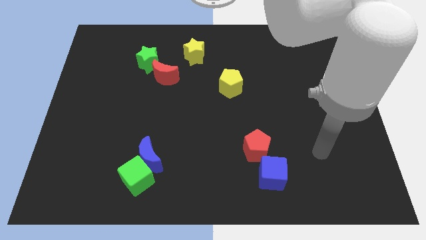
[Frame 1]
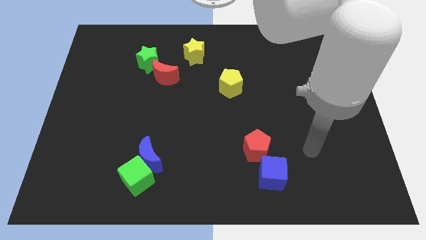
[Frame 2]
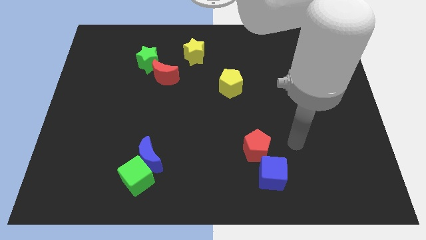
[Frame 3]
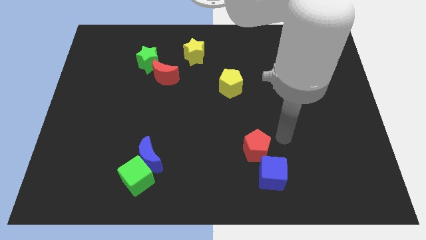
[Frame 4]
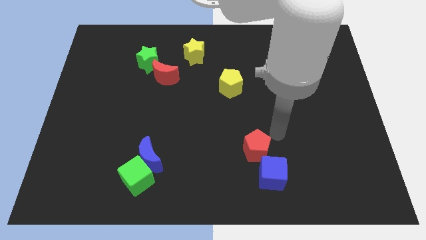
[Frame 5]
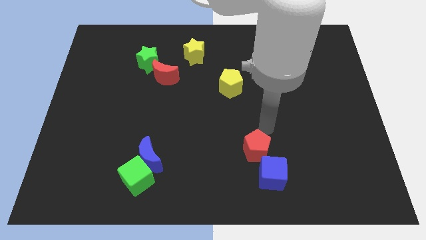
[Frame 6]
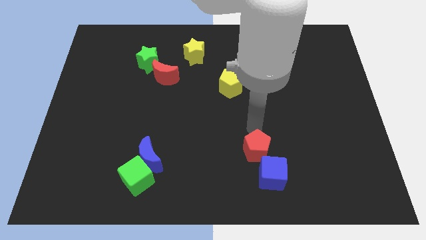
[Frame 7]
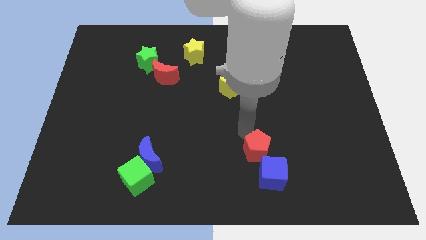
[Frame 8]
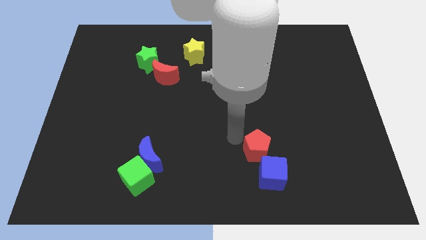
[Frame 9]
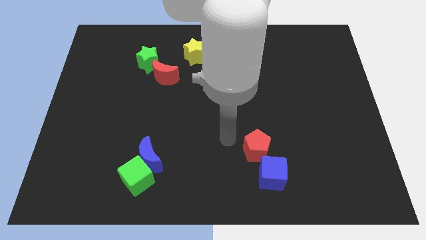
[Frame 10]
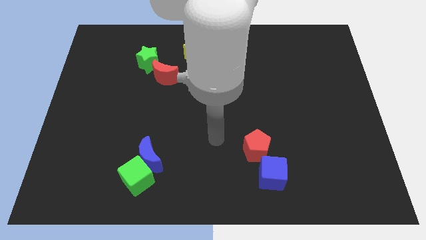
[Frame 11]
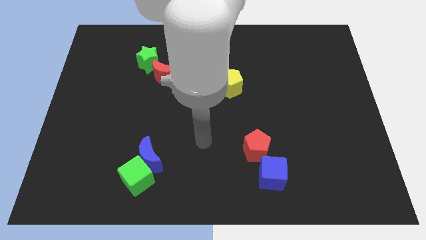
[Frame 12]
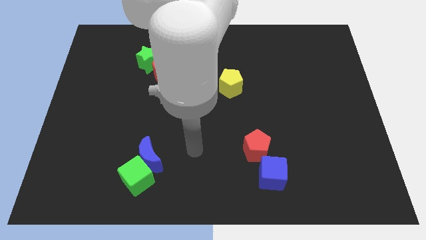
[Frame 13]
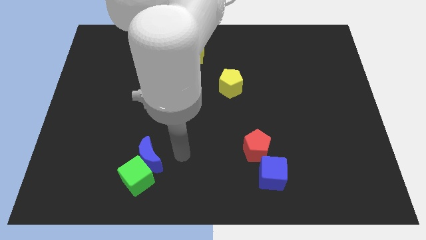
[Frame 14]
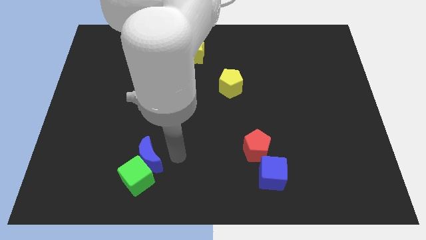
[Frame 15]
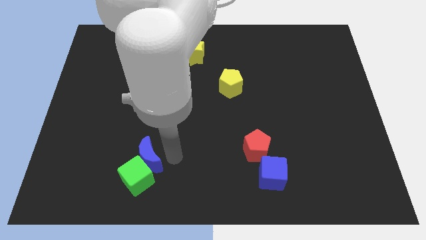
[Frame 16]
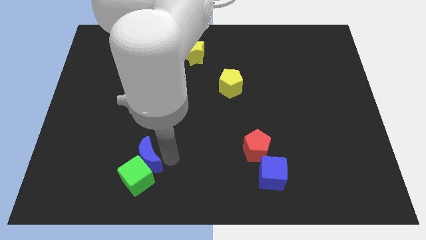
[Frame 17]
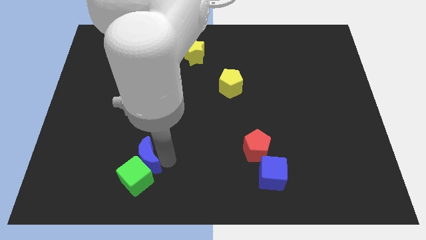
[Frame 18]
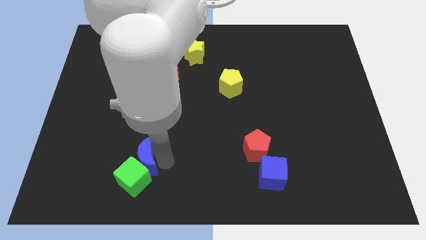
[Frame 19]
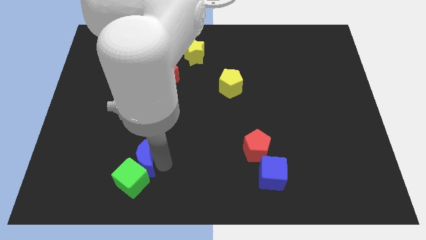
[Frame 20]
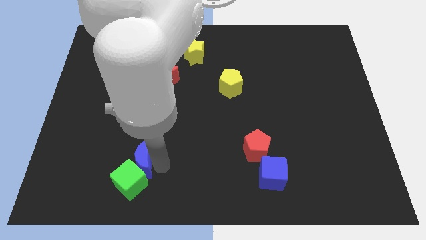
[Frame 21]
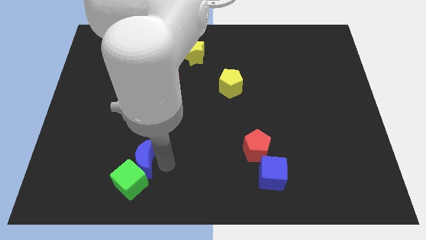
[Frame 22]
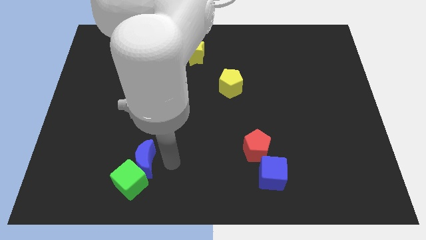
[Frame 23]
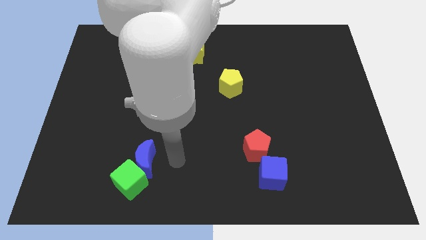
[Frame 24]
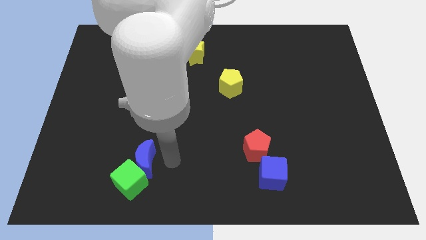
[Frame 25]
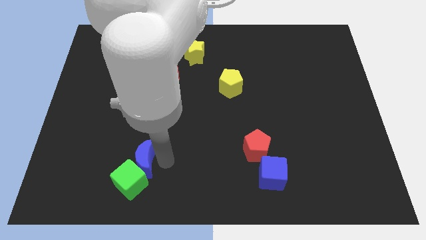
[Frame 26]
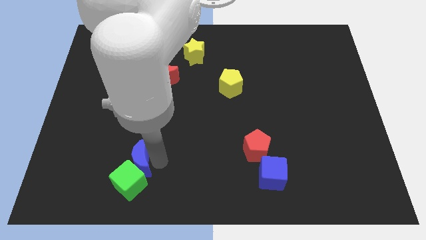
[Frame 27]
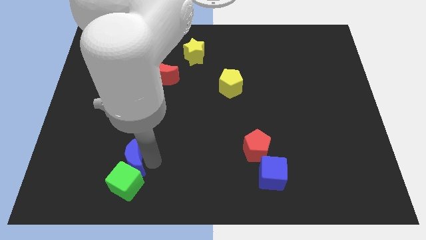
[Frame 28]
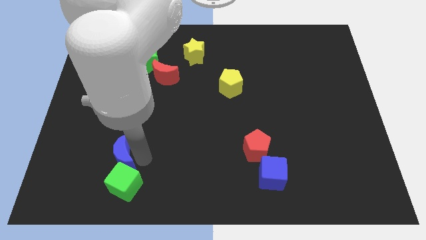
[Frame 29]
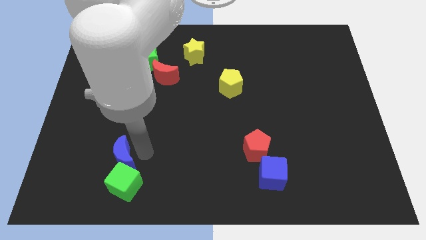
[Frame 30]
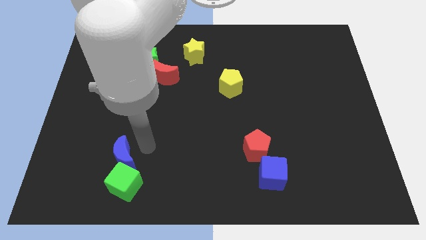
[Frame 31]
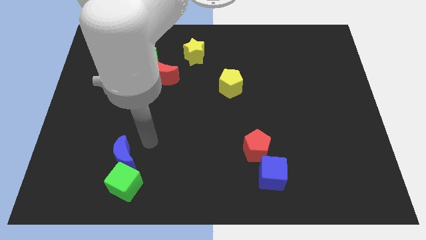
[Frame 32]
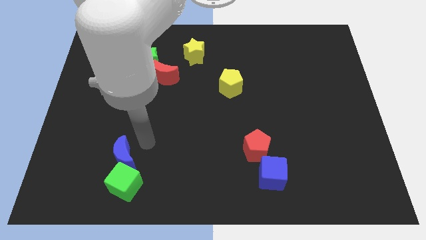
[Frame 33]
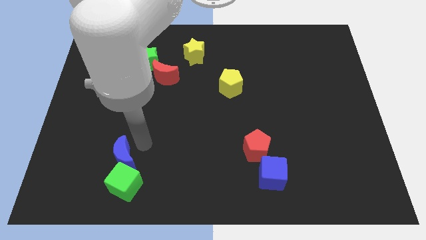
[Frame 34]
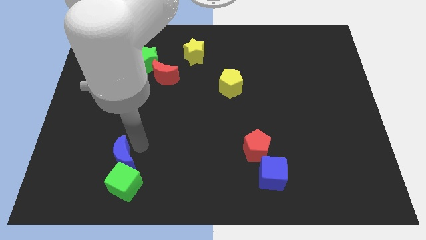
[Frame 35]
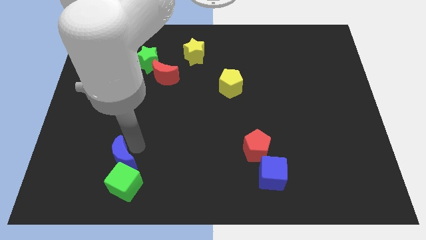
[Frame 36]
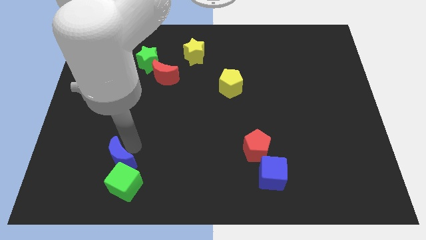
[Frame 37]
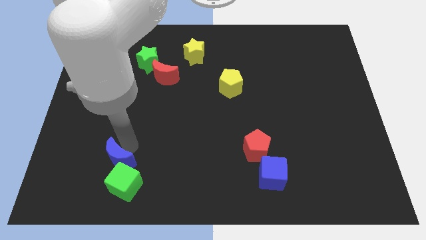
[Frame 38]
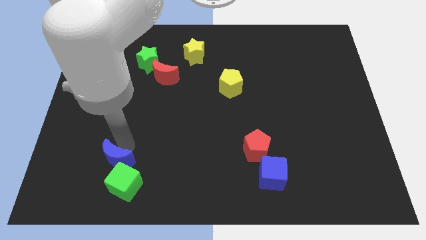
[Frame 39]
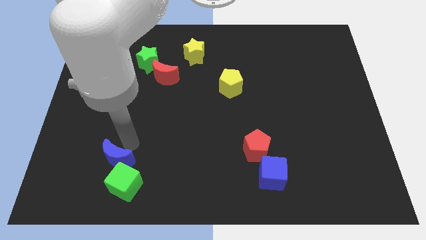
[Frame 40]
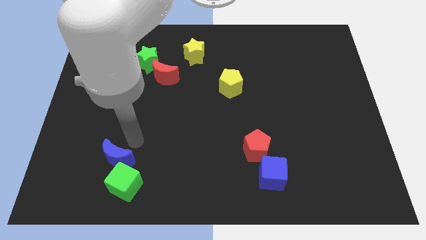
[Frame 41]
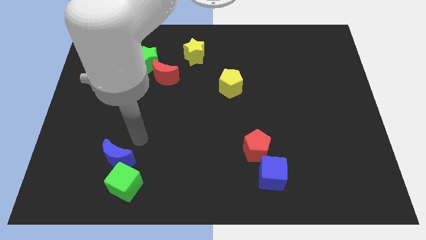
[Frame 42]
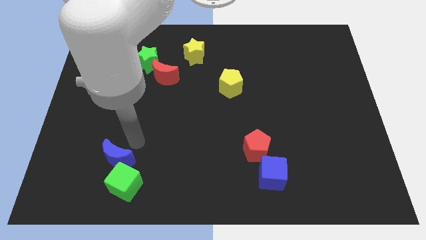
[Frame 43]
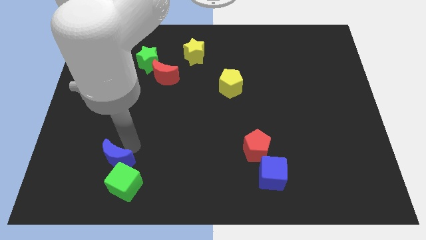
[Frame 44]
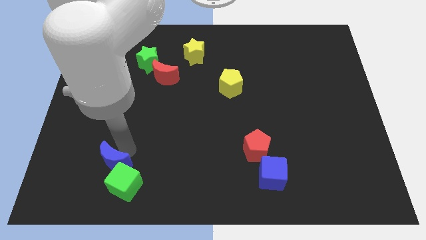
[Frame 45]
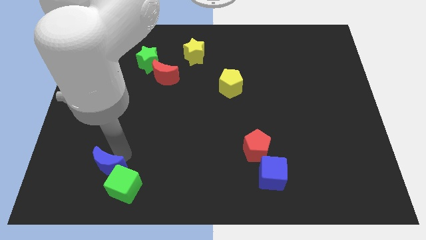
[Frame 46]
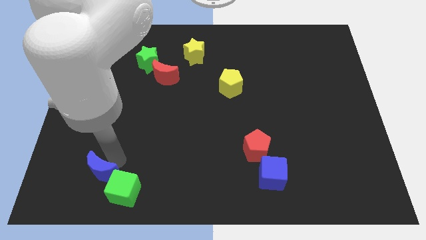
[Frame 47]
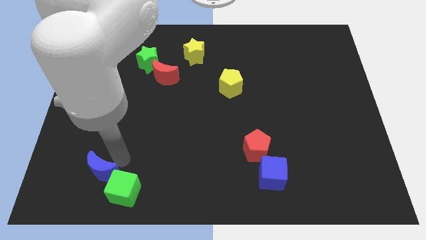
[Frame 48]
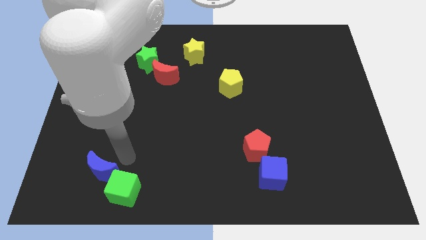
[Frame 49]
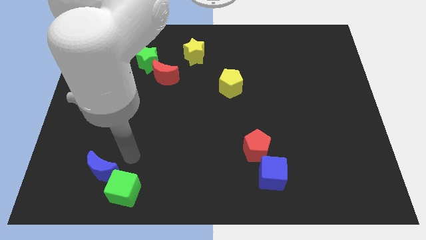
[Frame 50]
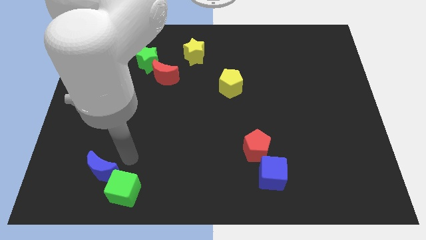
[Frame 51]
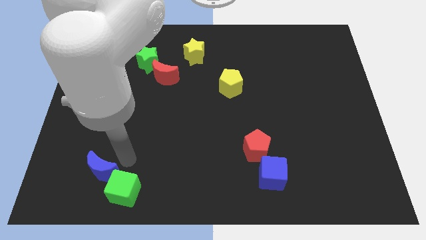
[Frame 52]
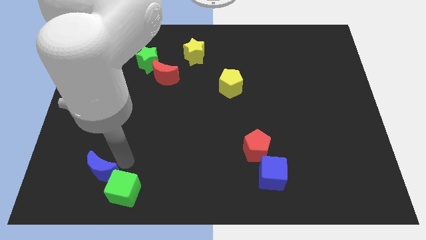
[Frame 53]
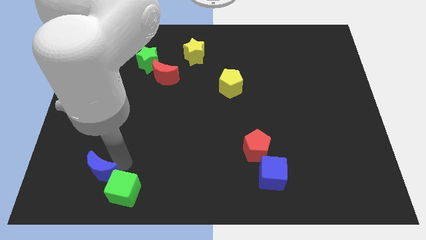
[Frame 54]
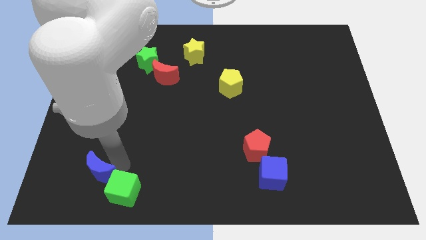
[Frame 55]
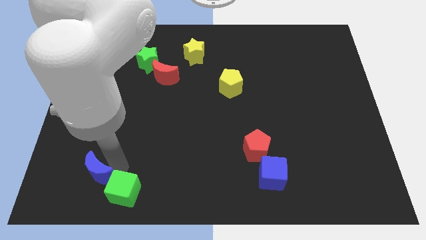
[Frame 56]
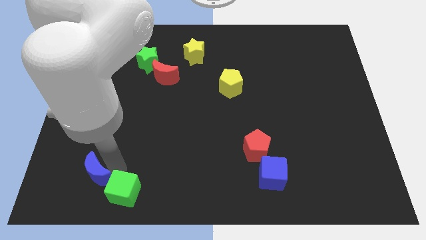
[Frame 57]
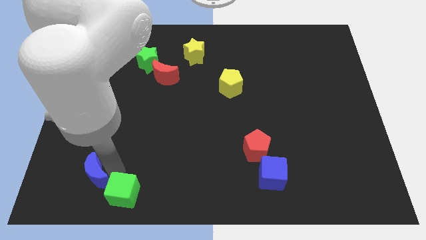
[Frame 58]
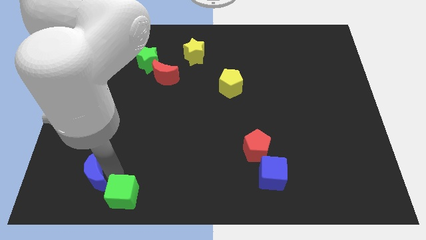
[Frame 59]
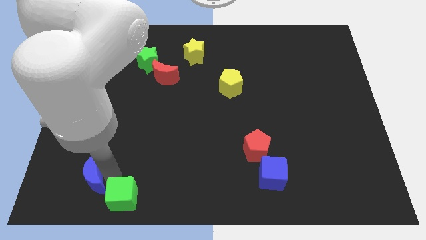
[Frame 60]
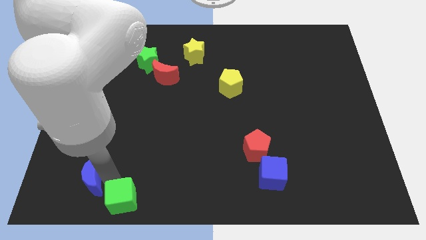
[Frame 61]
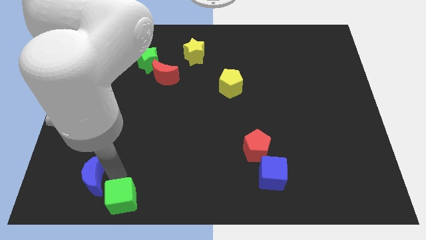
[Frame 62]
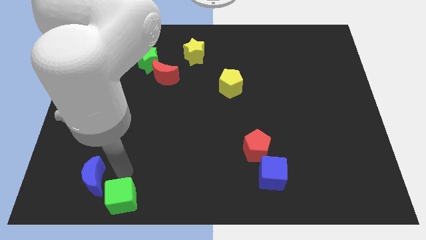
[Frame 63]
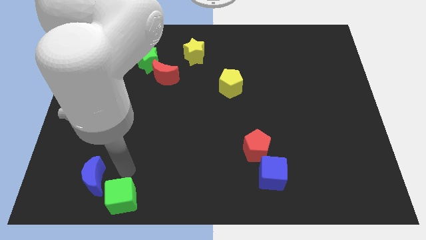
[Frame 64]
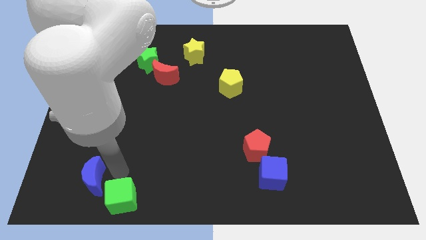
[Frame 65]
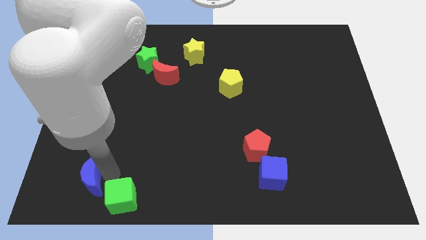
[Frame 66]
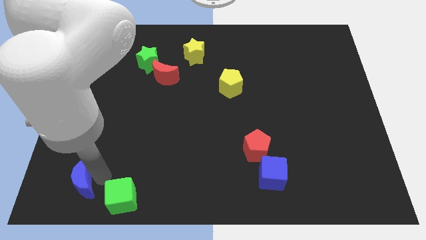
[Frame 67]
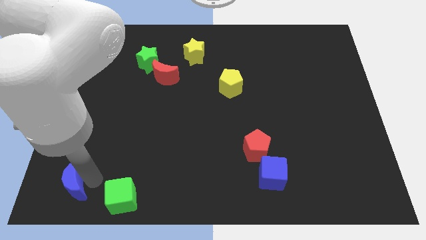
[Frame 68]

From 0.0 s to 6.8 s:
push the blue moon to the bottom left
